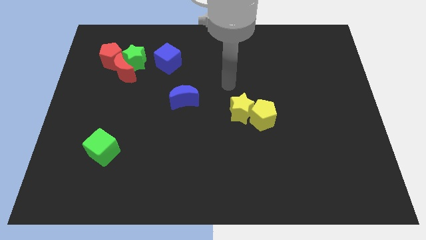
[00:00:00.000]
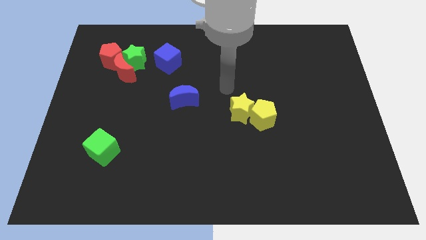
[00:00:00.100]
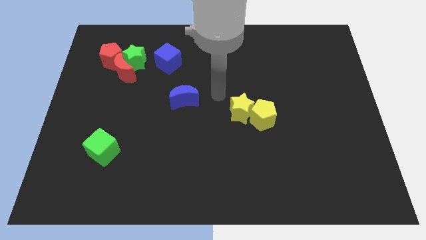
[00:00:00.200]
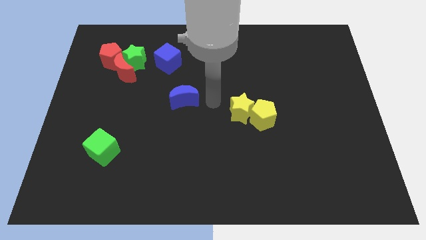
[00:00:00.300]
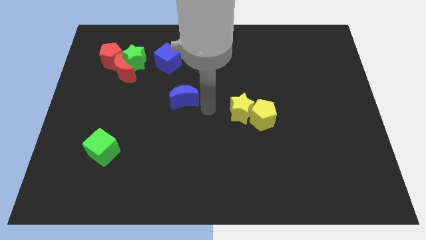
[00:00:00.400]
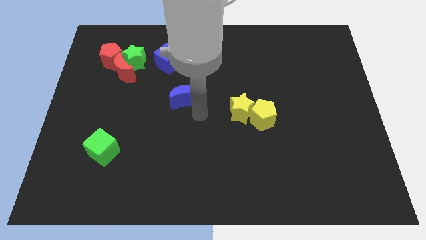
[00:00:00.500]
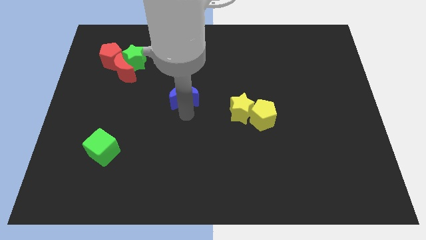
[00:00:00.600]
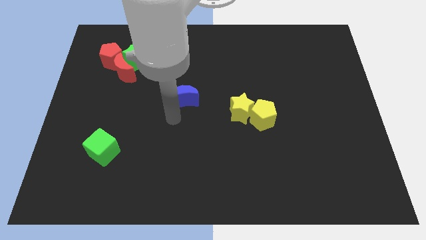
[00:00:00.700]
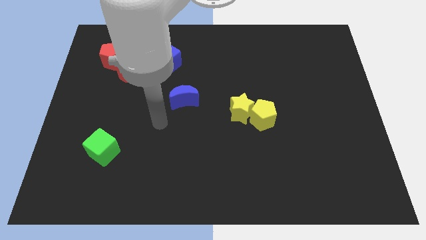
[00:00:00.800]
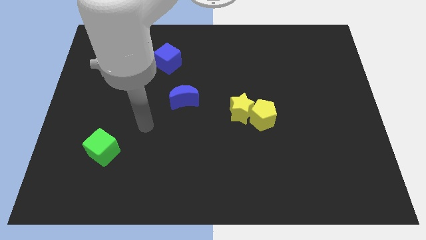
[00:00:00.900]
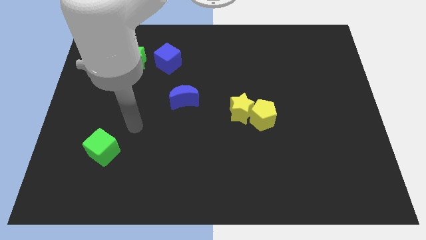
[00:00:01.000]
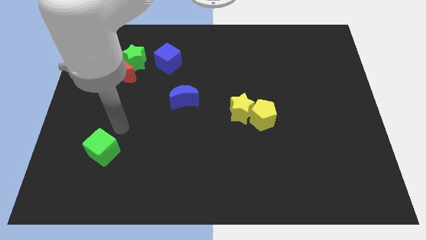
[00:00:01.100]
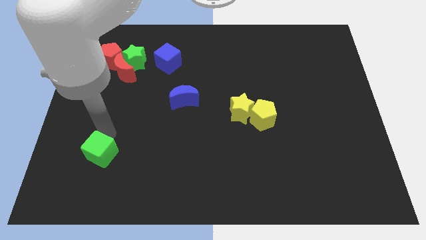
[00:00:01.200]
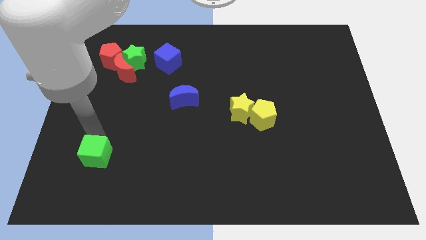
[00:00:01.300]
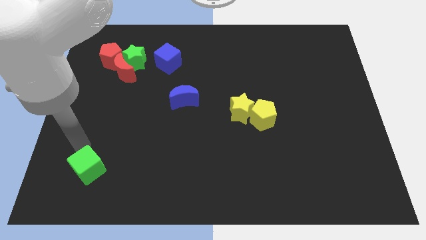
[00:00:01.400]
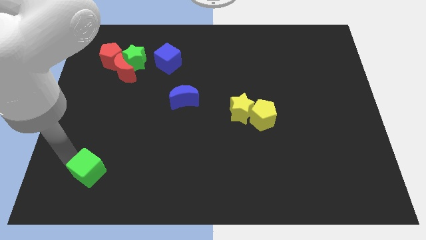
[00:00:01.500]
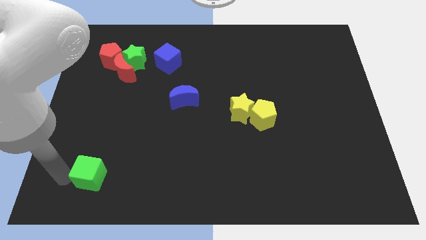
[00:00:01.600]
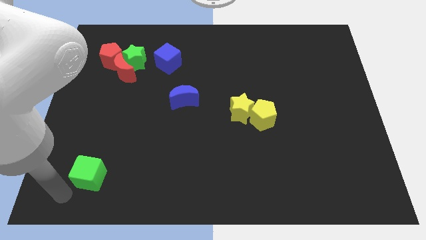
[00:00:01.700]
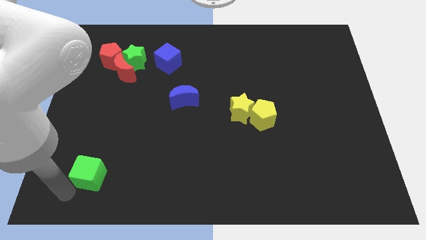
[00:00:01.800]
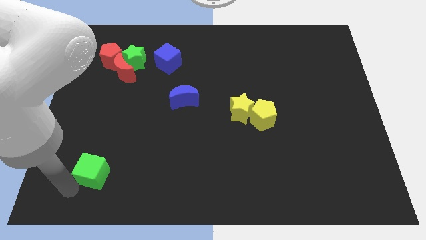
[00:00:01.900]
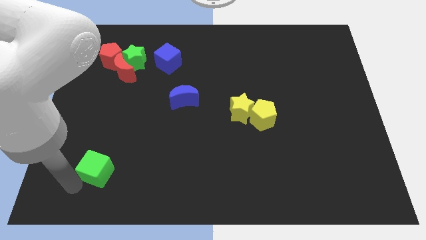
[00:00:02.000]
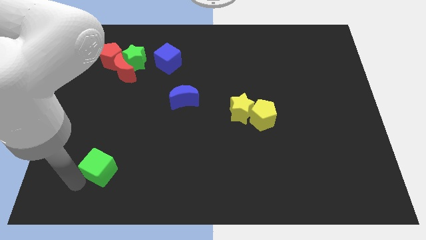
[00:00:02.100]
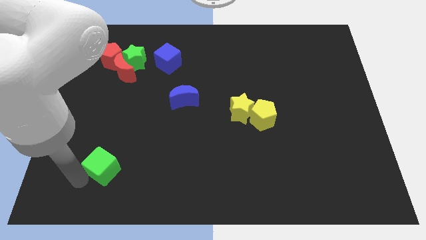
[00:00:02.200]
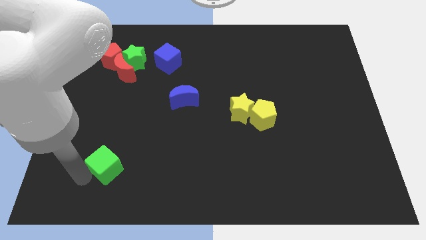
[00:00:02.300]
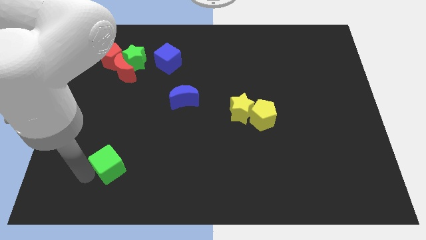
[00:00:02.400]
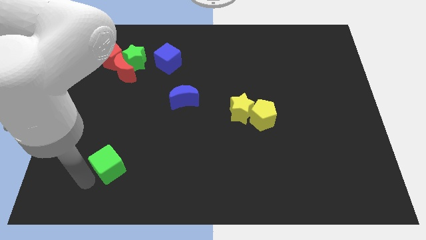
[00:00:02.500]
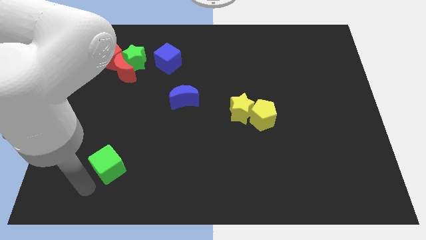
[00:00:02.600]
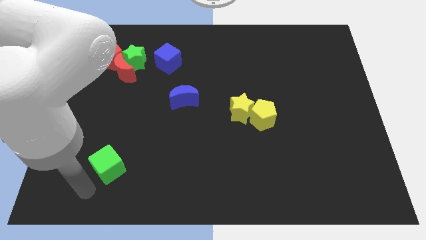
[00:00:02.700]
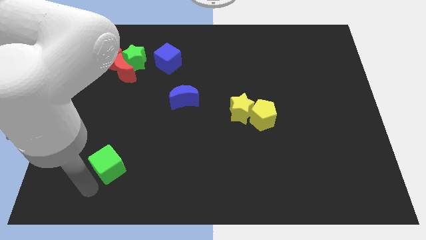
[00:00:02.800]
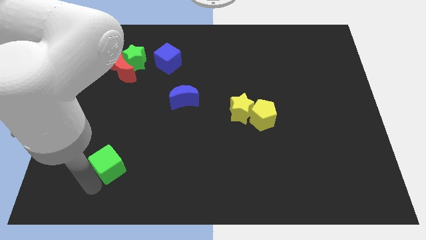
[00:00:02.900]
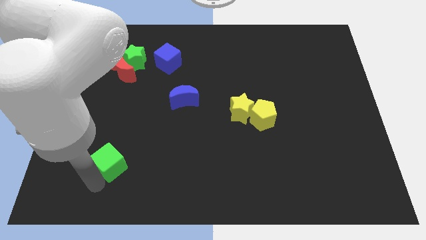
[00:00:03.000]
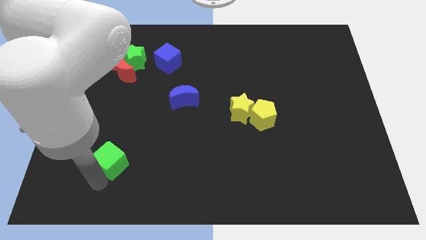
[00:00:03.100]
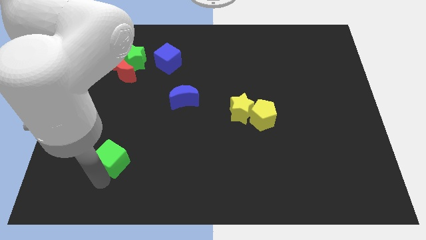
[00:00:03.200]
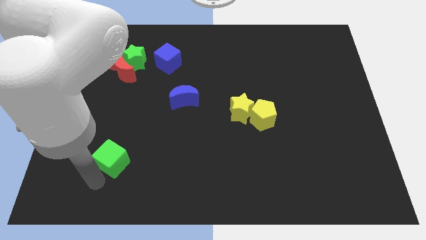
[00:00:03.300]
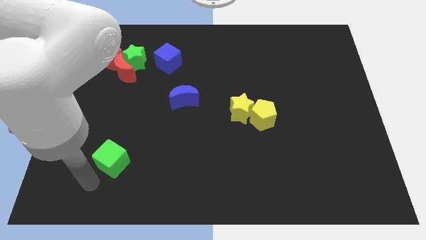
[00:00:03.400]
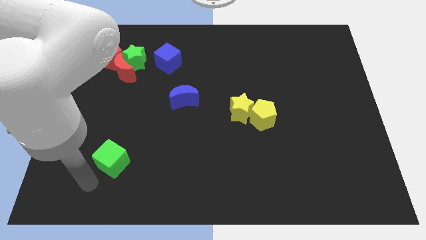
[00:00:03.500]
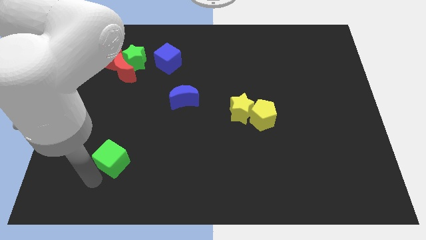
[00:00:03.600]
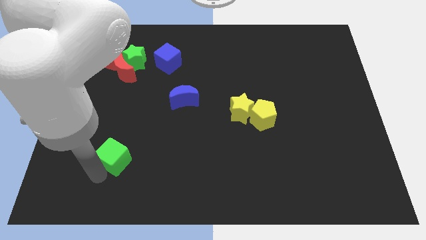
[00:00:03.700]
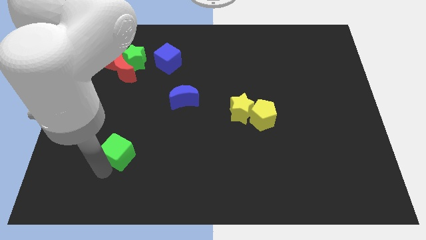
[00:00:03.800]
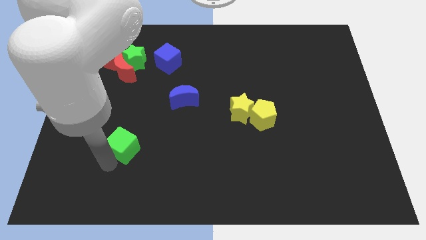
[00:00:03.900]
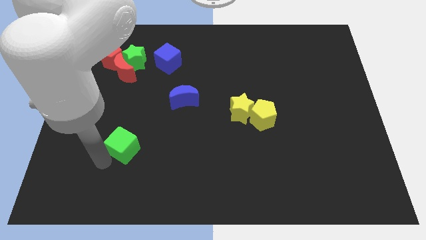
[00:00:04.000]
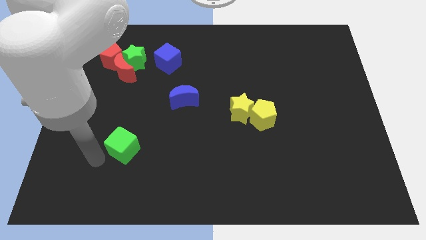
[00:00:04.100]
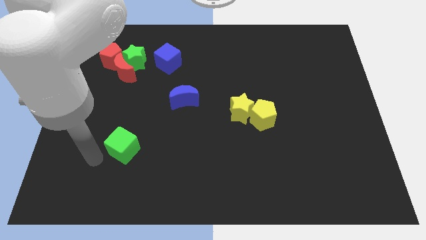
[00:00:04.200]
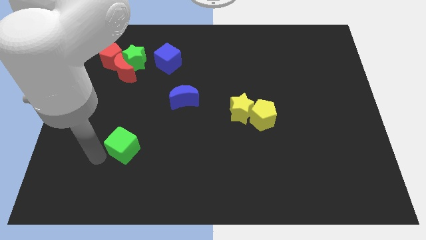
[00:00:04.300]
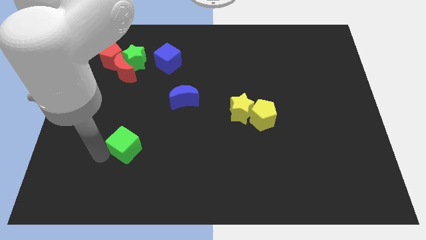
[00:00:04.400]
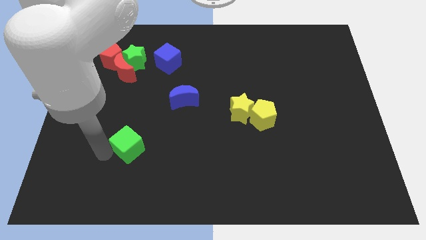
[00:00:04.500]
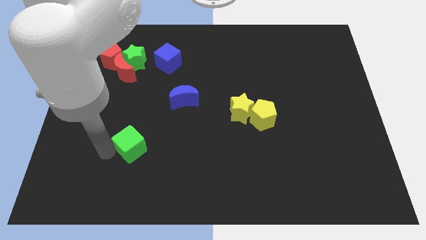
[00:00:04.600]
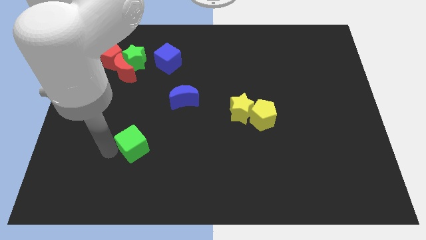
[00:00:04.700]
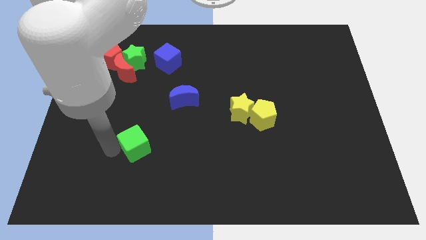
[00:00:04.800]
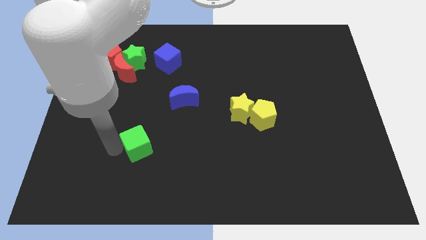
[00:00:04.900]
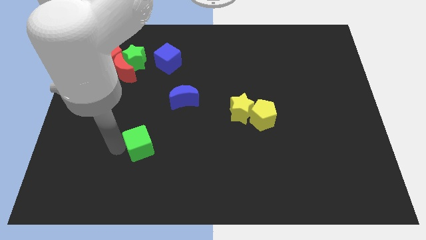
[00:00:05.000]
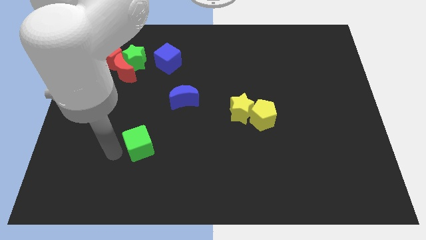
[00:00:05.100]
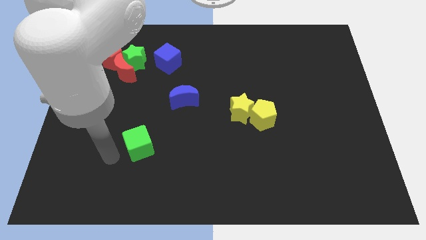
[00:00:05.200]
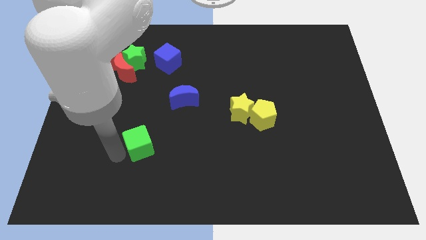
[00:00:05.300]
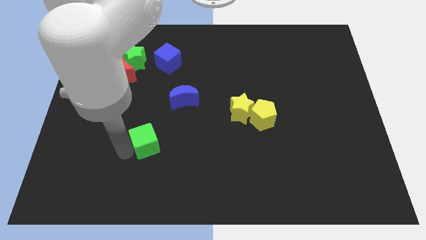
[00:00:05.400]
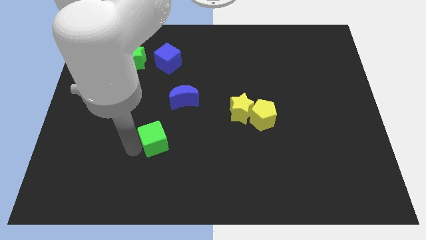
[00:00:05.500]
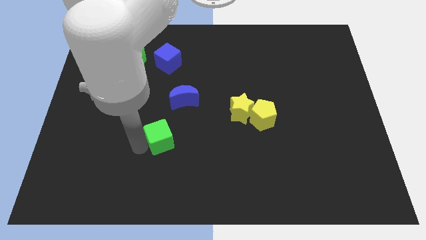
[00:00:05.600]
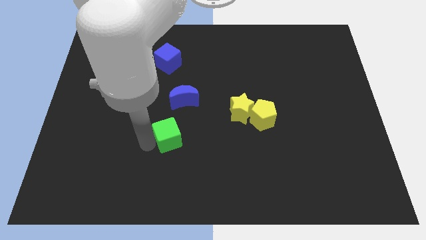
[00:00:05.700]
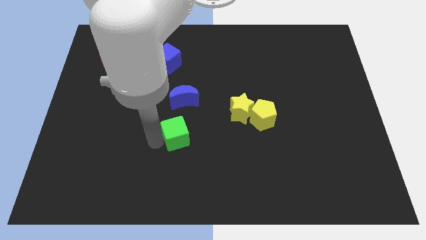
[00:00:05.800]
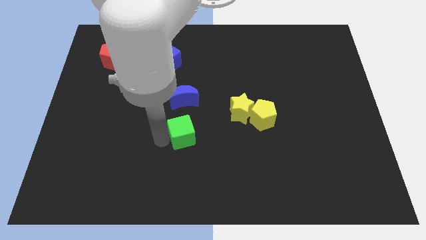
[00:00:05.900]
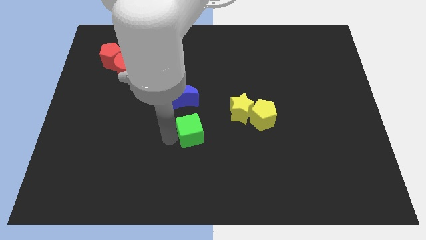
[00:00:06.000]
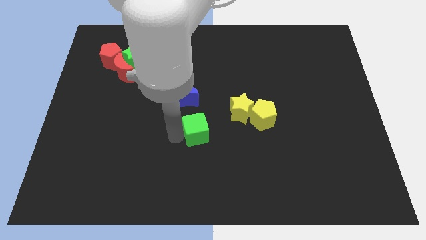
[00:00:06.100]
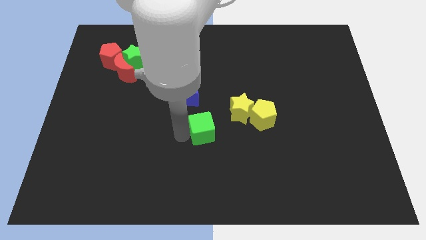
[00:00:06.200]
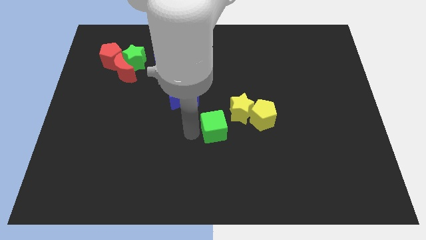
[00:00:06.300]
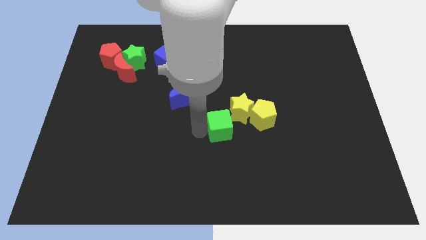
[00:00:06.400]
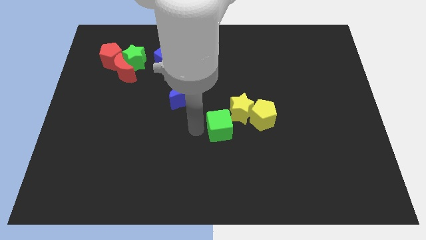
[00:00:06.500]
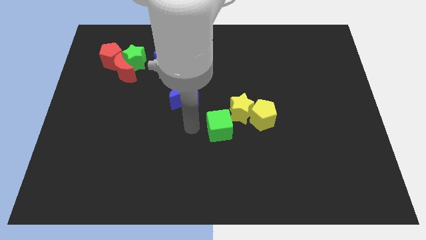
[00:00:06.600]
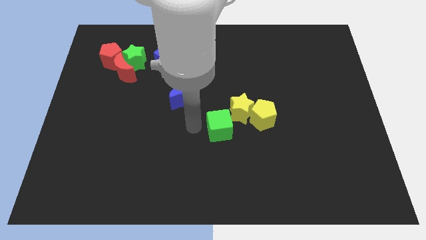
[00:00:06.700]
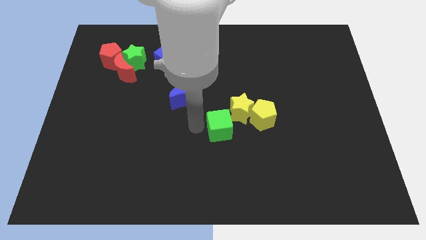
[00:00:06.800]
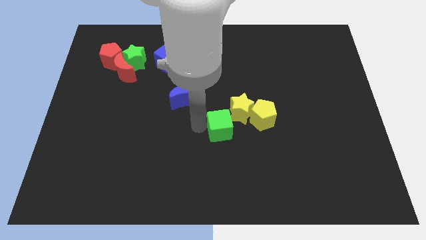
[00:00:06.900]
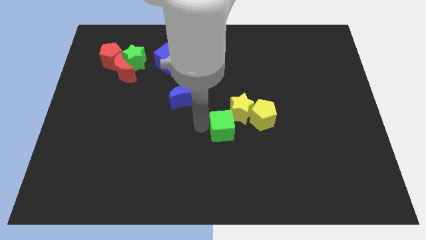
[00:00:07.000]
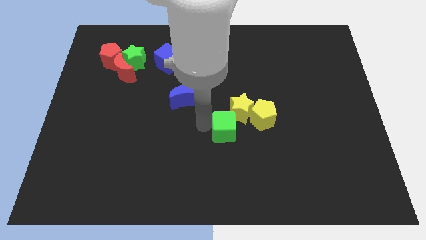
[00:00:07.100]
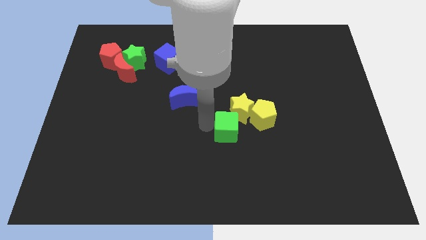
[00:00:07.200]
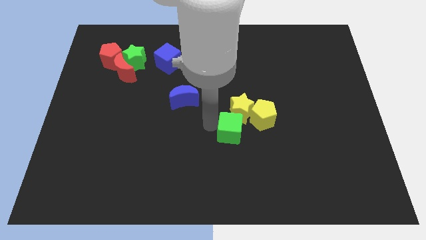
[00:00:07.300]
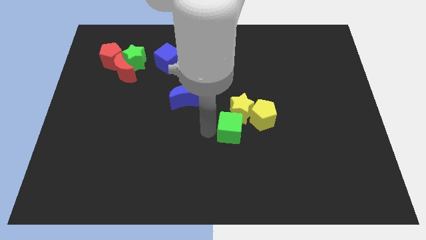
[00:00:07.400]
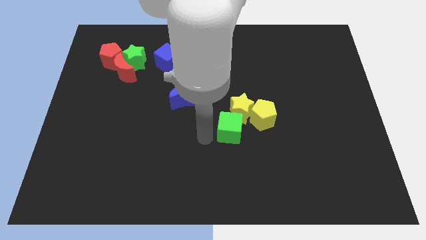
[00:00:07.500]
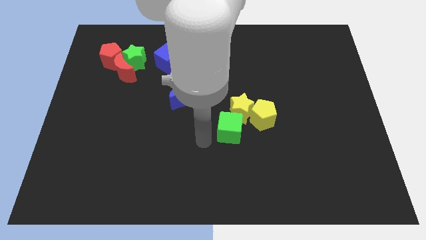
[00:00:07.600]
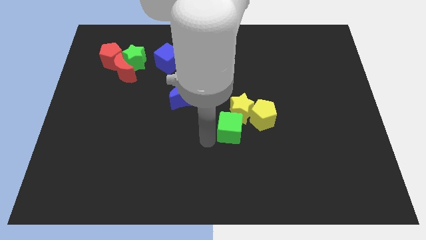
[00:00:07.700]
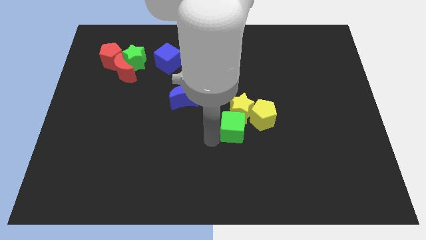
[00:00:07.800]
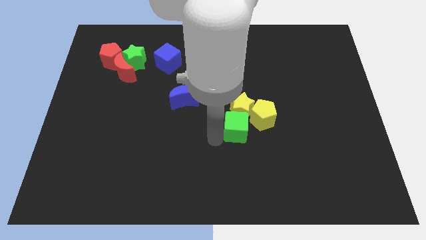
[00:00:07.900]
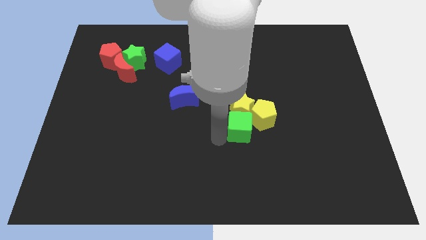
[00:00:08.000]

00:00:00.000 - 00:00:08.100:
push the green cube to the yellow pentagon
